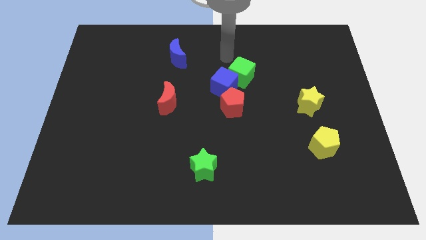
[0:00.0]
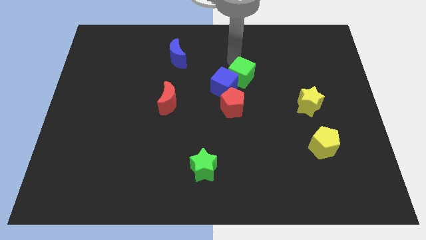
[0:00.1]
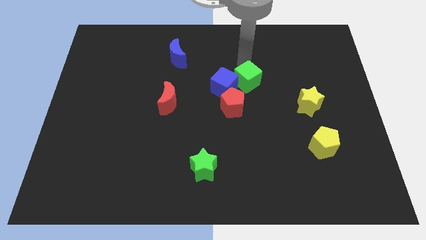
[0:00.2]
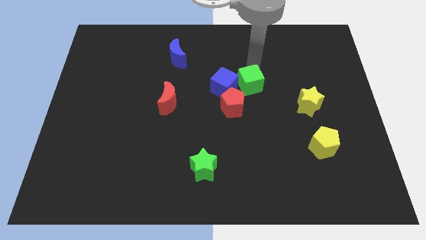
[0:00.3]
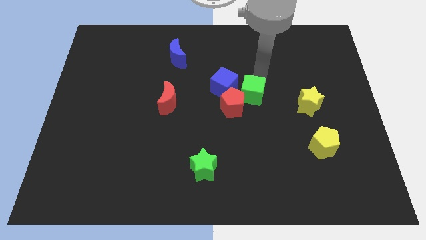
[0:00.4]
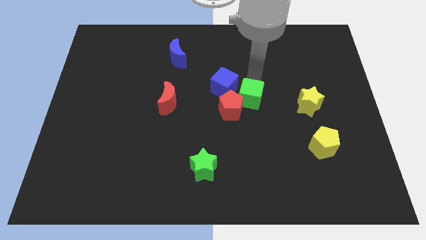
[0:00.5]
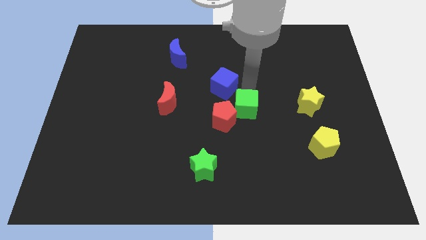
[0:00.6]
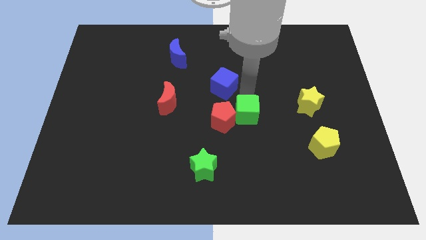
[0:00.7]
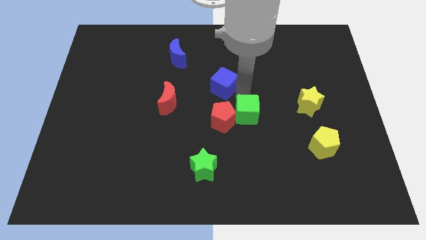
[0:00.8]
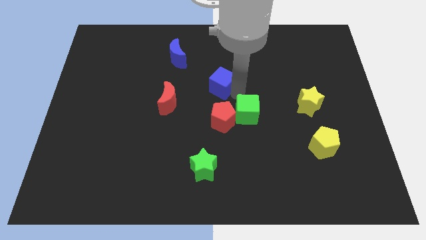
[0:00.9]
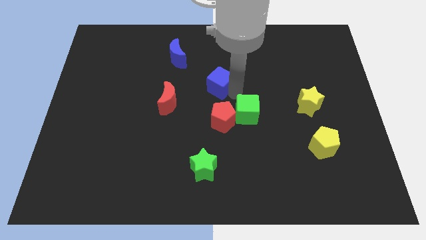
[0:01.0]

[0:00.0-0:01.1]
separate the blue cube from the green cube and red pentagon

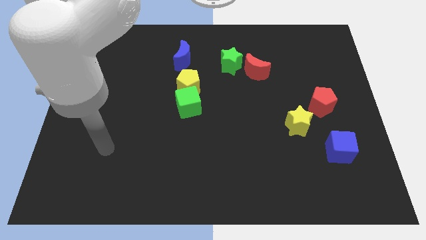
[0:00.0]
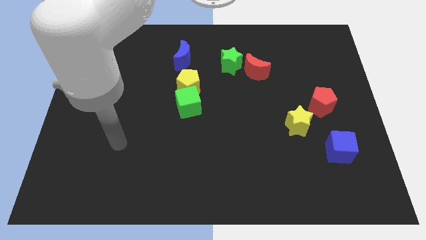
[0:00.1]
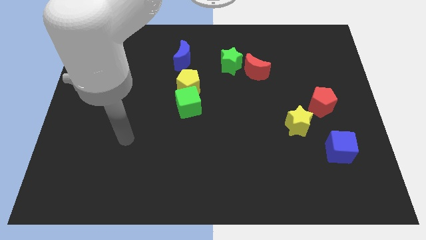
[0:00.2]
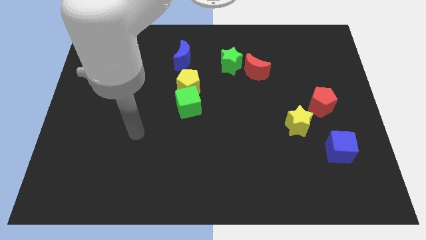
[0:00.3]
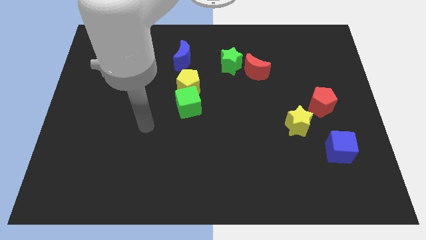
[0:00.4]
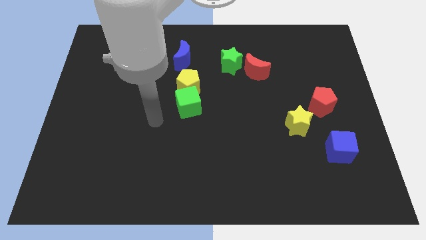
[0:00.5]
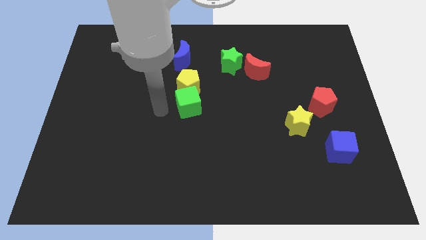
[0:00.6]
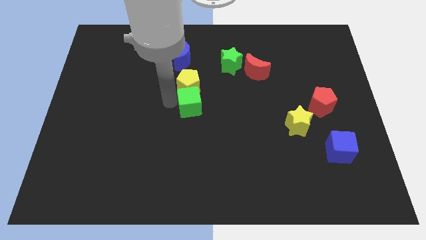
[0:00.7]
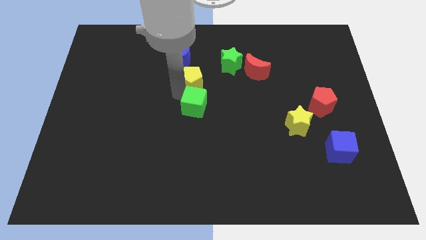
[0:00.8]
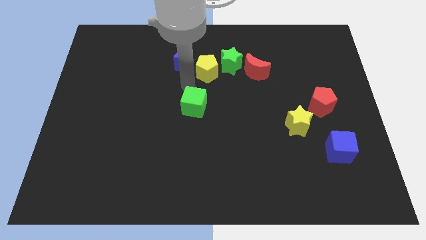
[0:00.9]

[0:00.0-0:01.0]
separate the green cube from the yellow pentagon

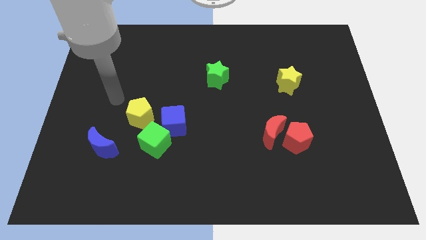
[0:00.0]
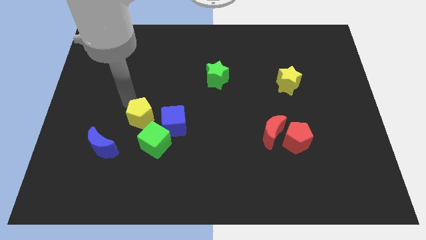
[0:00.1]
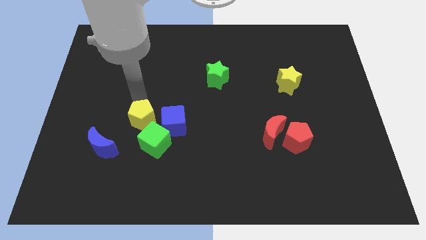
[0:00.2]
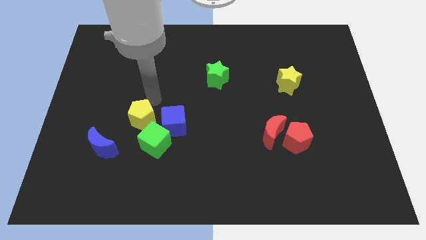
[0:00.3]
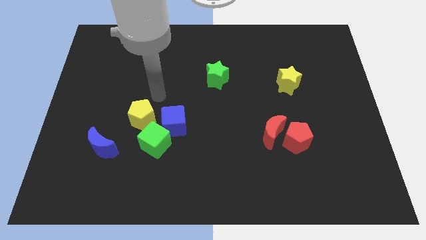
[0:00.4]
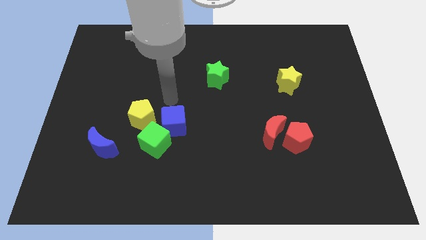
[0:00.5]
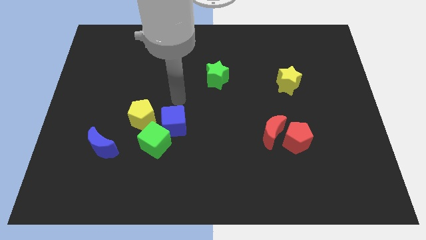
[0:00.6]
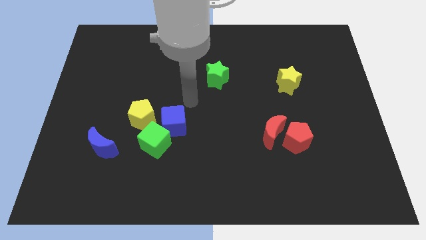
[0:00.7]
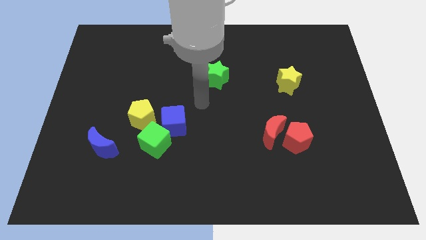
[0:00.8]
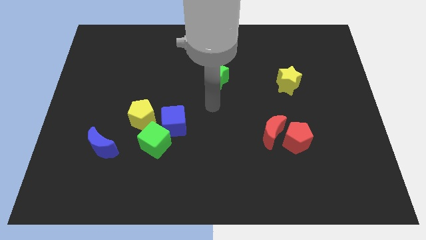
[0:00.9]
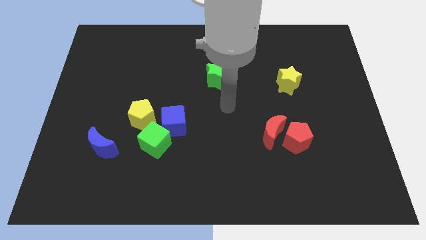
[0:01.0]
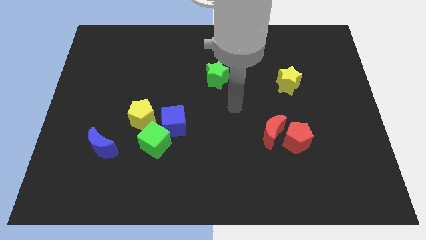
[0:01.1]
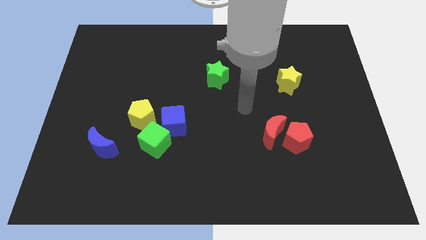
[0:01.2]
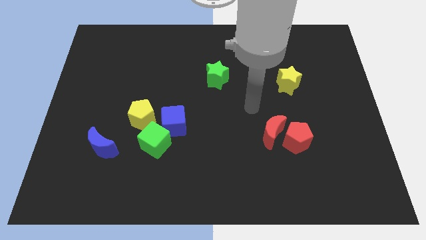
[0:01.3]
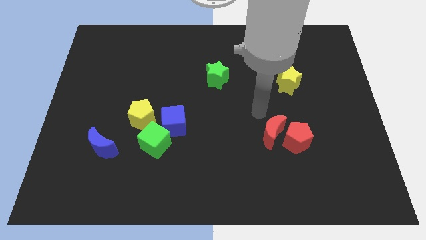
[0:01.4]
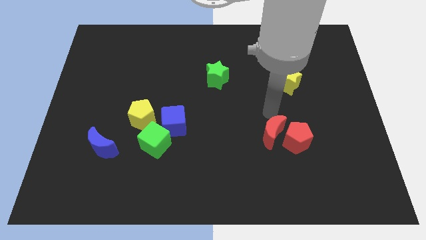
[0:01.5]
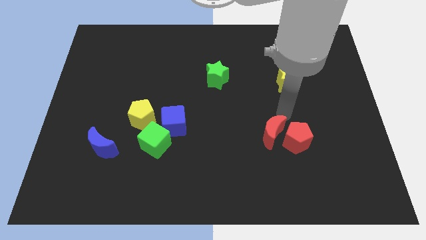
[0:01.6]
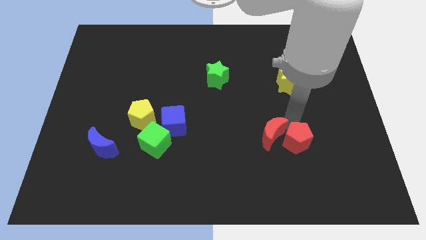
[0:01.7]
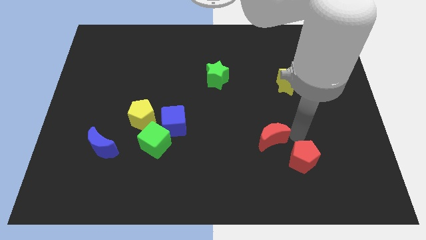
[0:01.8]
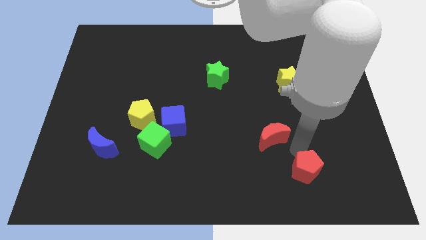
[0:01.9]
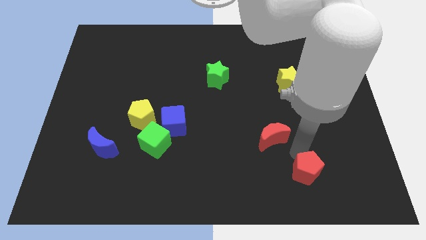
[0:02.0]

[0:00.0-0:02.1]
separate the red moon from the red pentagon

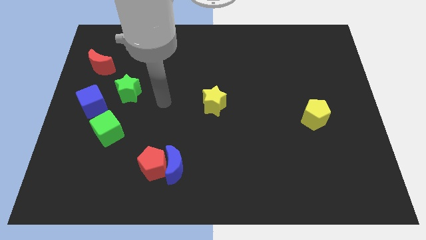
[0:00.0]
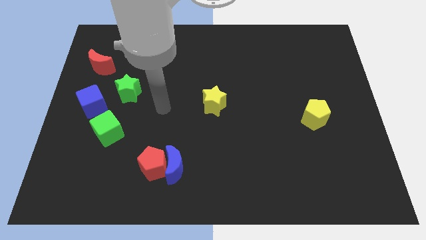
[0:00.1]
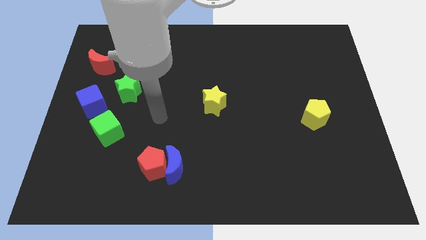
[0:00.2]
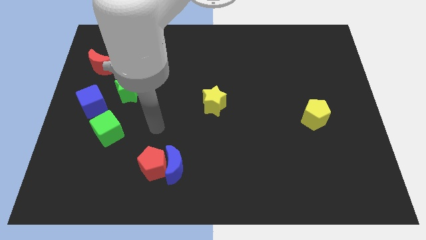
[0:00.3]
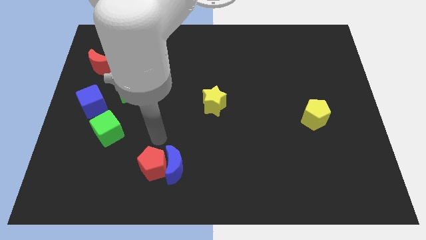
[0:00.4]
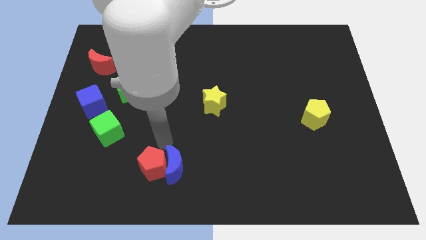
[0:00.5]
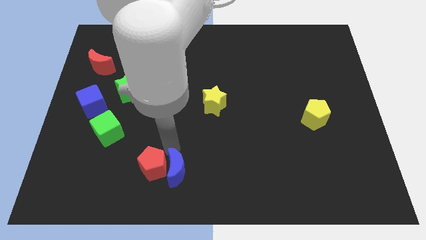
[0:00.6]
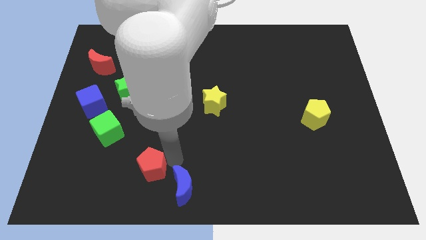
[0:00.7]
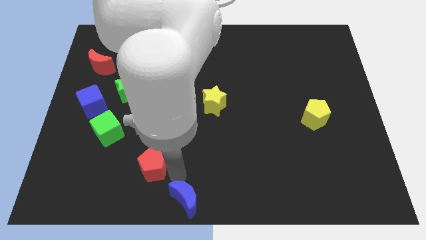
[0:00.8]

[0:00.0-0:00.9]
separate the red pentagon from the blue moon

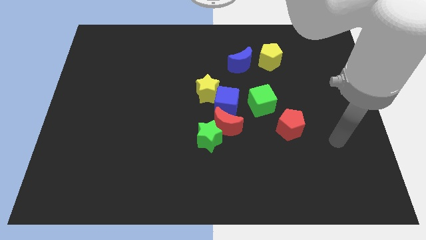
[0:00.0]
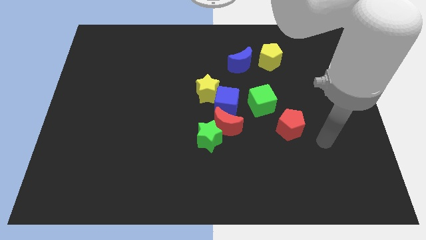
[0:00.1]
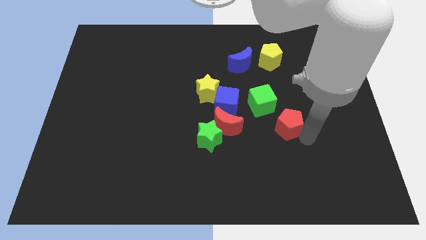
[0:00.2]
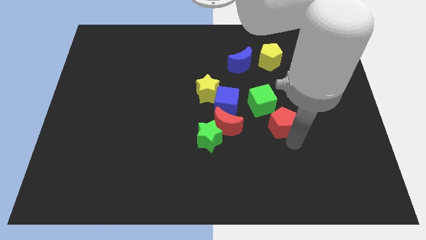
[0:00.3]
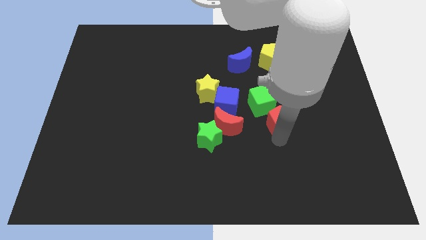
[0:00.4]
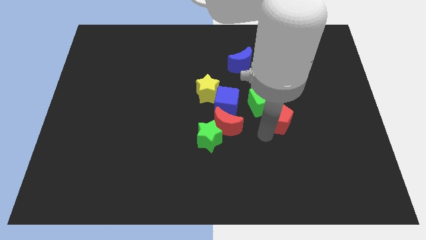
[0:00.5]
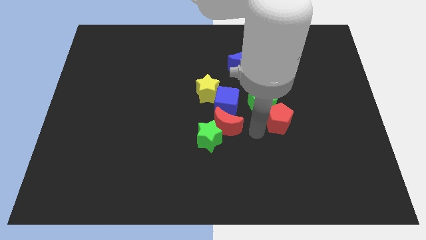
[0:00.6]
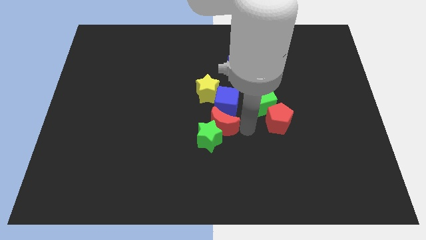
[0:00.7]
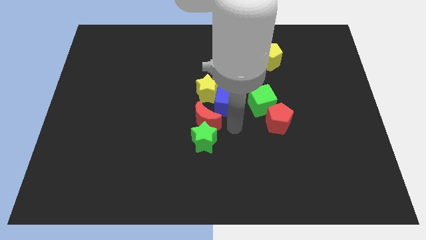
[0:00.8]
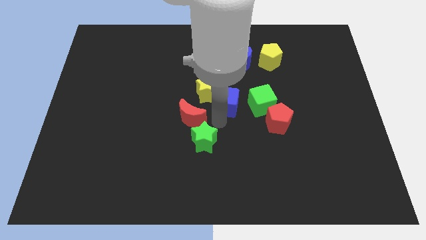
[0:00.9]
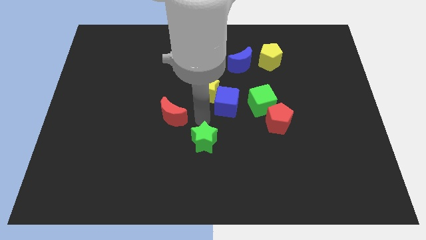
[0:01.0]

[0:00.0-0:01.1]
separate the green star from the red moon

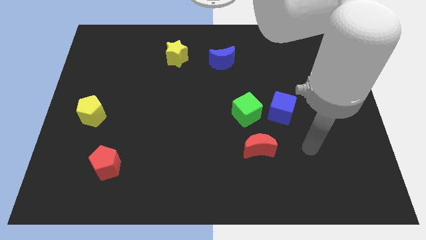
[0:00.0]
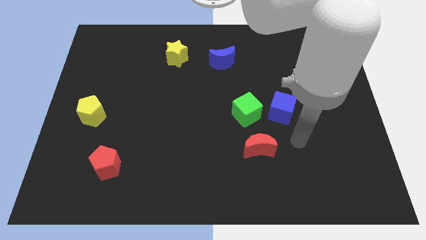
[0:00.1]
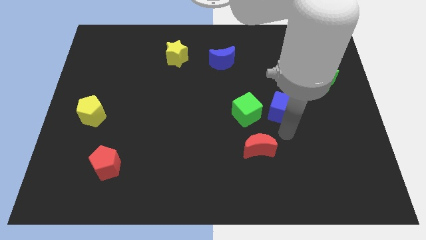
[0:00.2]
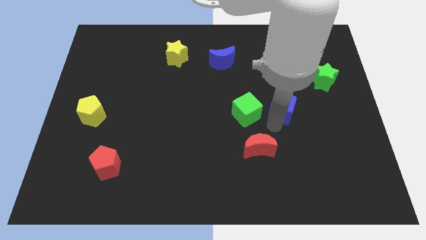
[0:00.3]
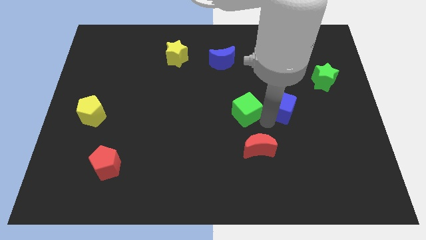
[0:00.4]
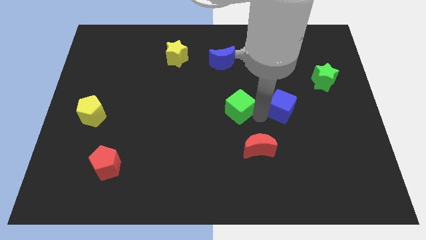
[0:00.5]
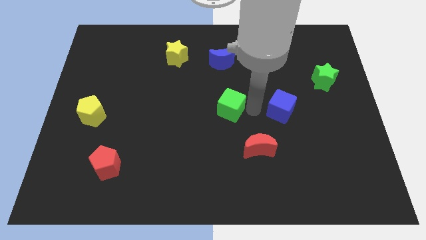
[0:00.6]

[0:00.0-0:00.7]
move the blue cube away from the green cube

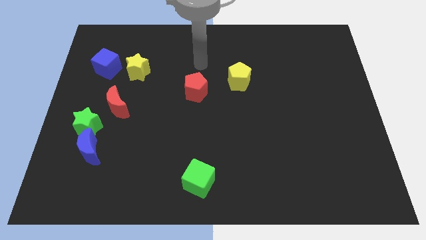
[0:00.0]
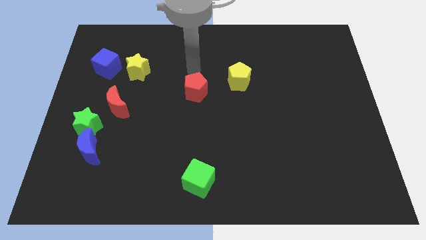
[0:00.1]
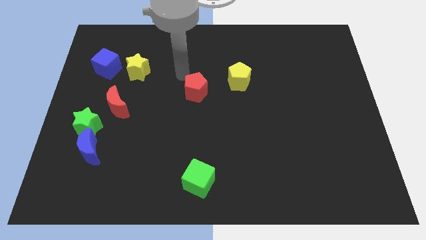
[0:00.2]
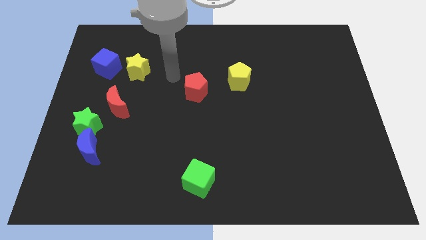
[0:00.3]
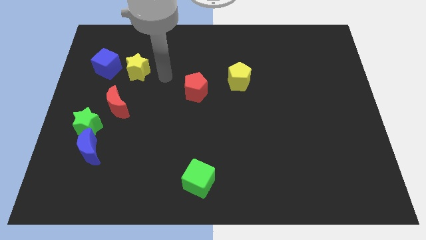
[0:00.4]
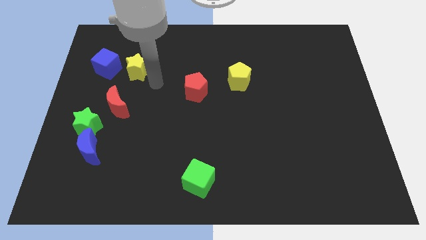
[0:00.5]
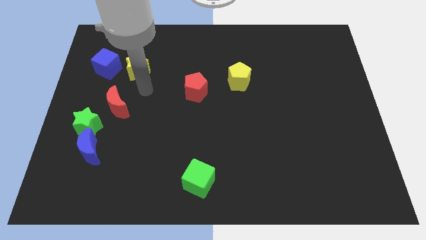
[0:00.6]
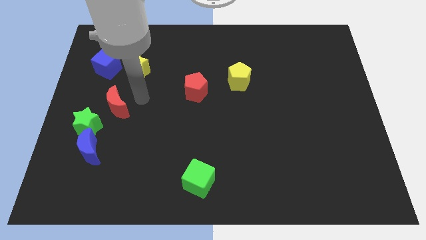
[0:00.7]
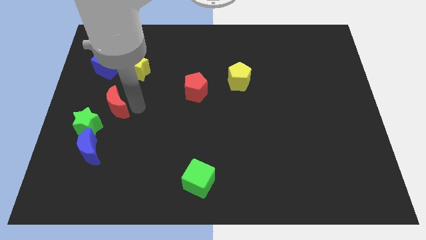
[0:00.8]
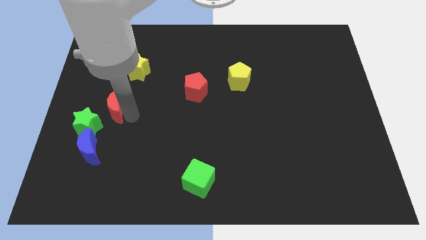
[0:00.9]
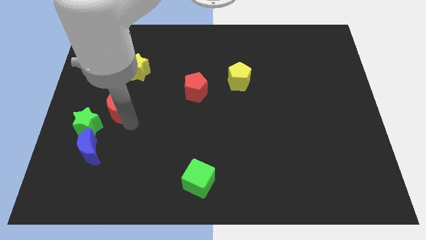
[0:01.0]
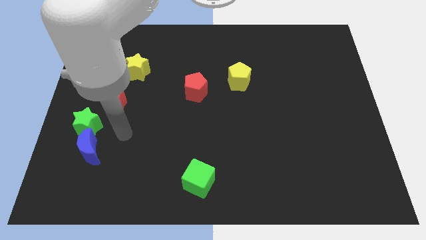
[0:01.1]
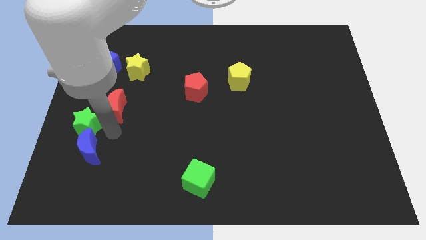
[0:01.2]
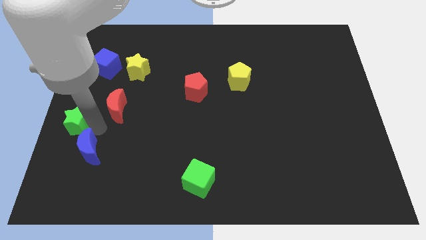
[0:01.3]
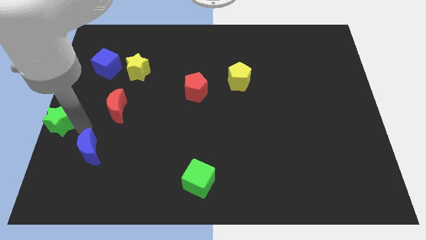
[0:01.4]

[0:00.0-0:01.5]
separate the blue moon from the green star

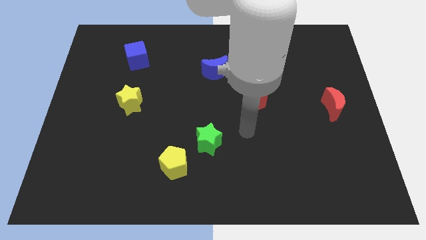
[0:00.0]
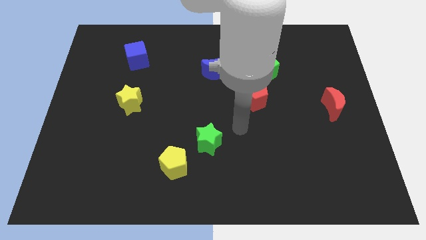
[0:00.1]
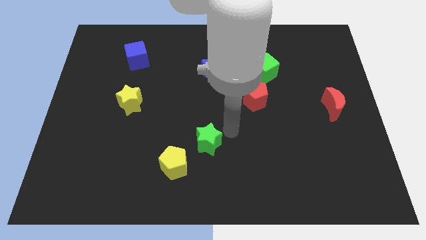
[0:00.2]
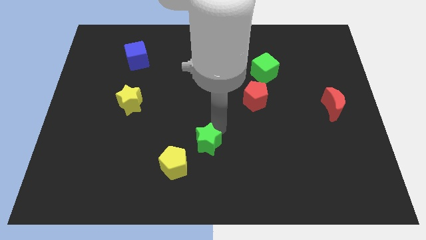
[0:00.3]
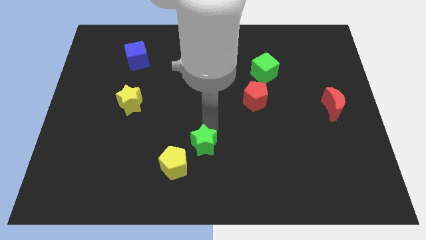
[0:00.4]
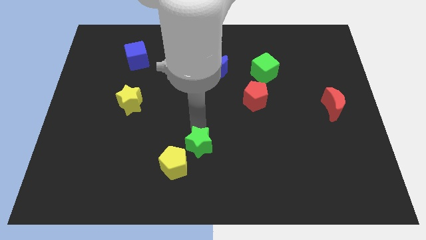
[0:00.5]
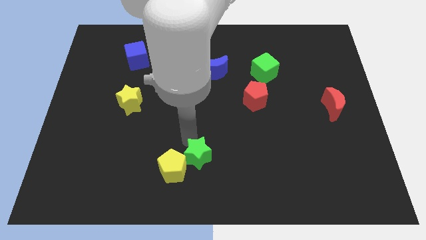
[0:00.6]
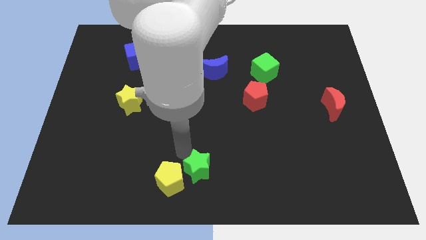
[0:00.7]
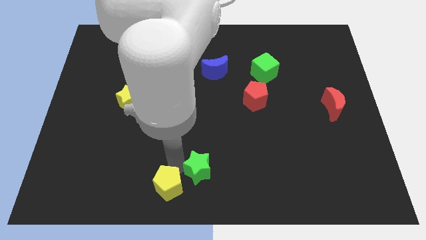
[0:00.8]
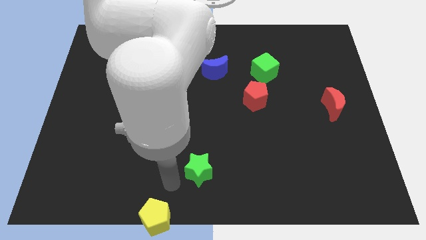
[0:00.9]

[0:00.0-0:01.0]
move the green star away from the yellow pentagon

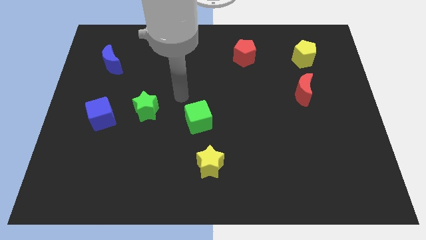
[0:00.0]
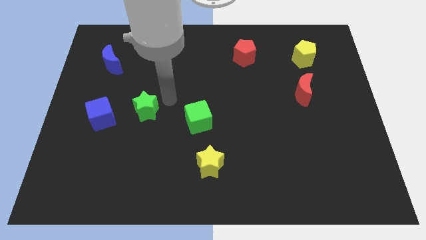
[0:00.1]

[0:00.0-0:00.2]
move the blue cube away from the green star
